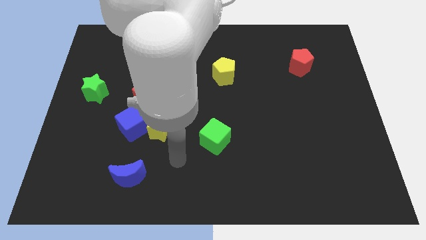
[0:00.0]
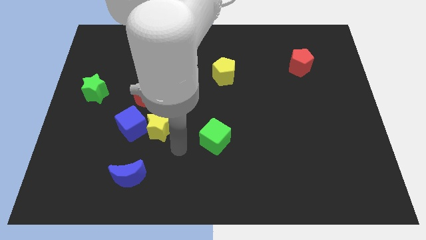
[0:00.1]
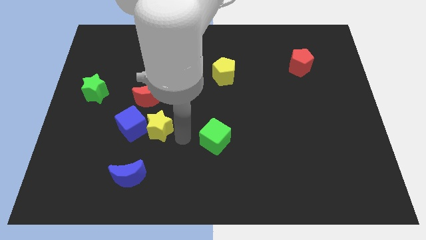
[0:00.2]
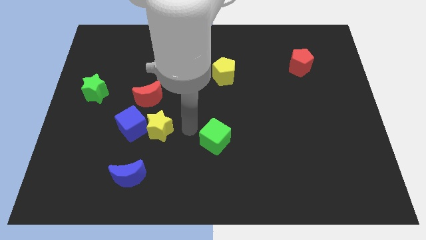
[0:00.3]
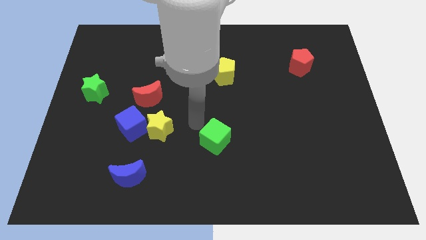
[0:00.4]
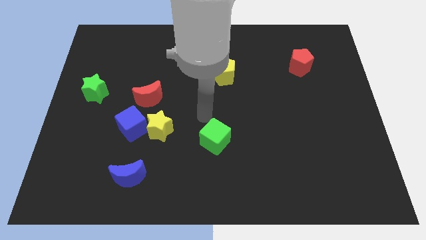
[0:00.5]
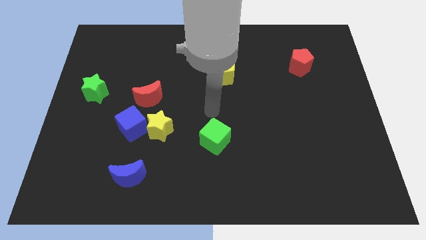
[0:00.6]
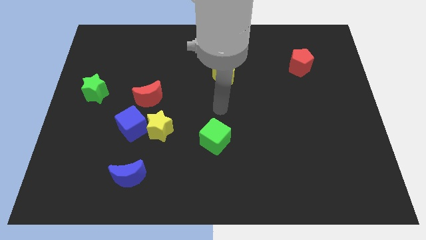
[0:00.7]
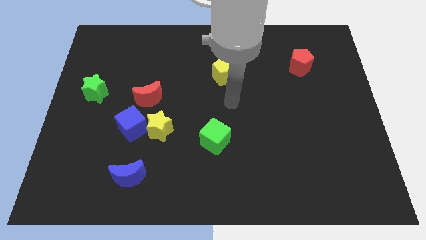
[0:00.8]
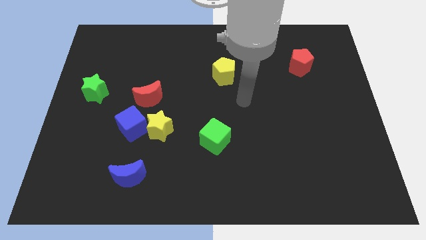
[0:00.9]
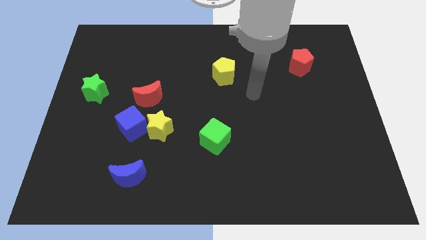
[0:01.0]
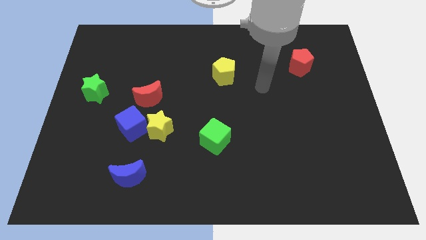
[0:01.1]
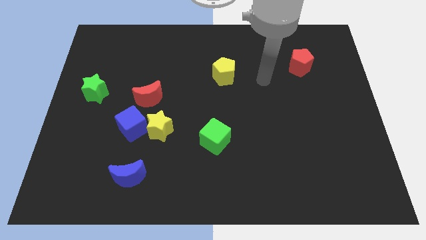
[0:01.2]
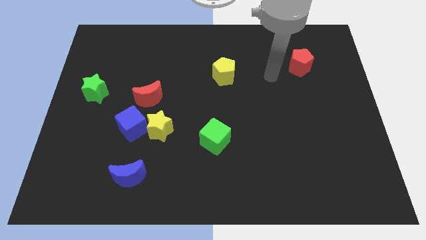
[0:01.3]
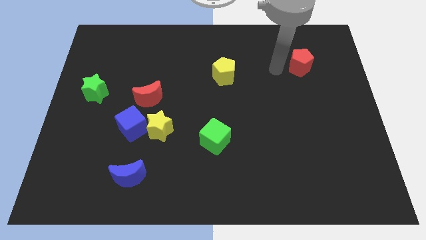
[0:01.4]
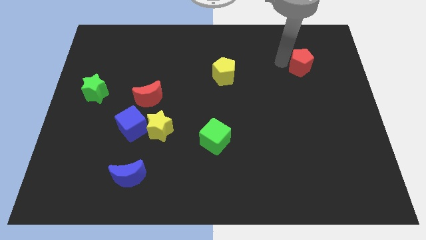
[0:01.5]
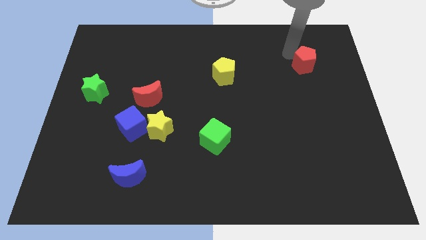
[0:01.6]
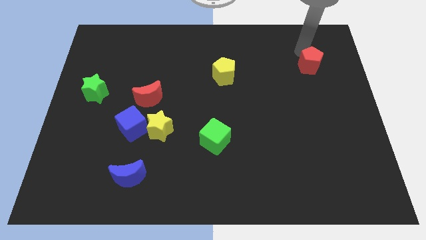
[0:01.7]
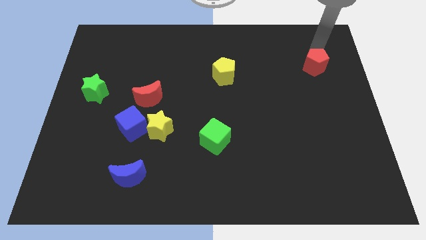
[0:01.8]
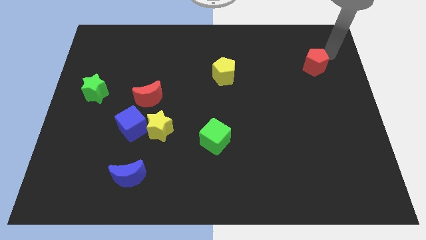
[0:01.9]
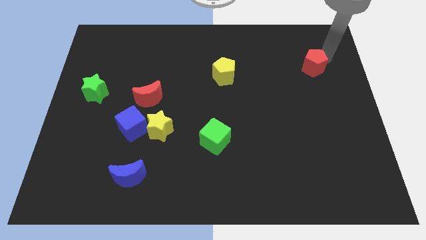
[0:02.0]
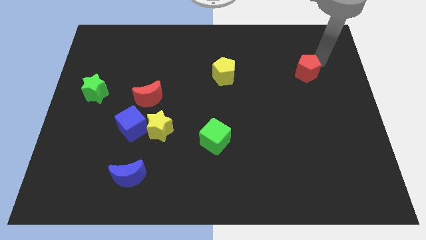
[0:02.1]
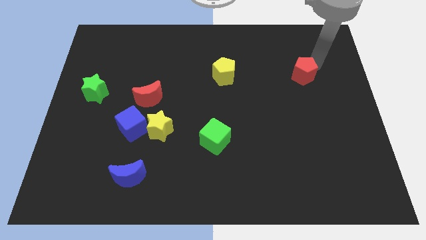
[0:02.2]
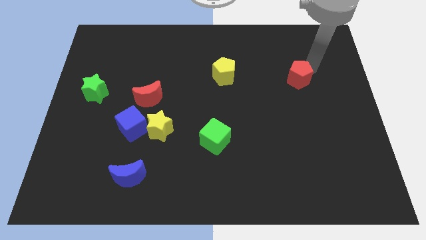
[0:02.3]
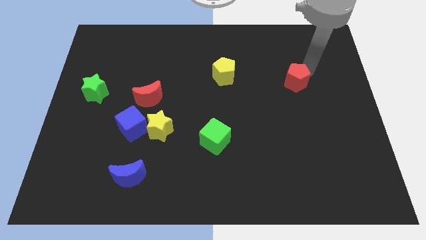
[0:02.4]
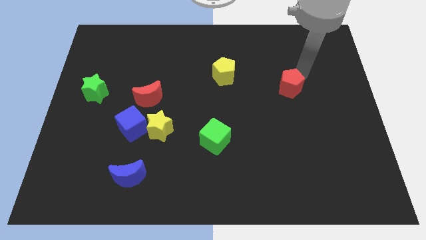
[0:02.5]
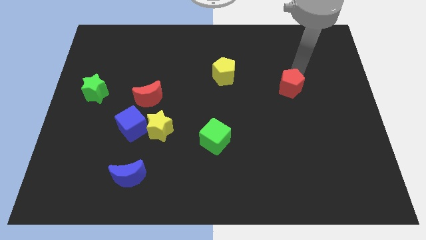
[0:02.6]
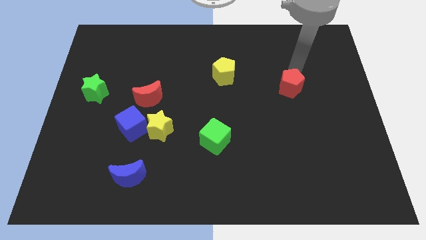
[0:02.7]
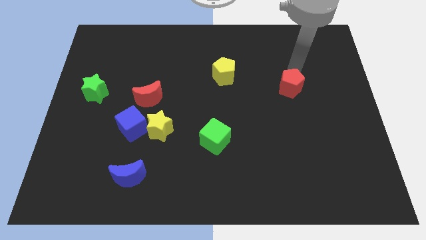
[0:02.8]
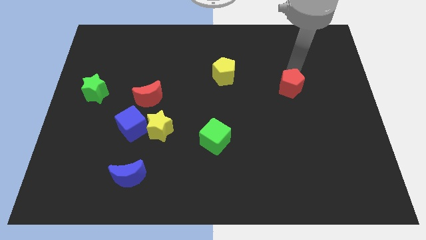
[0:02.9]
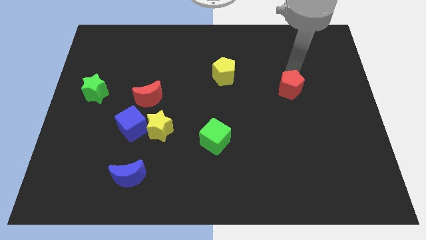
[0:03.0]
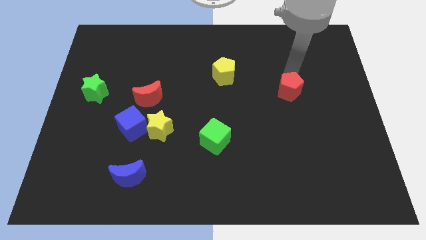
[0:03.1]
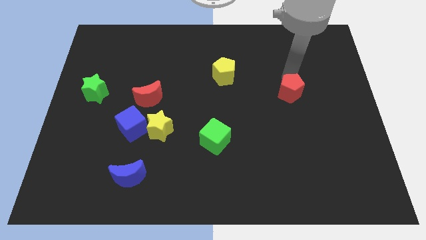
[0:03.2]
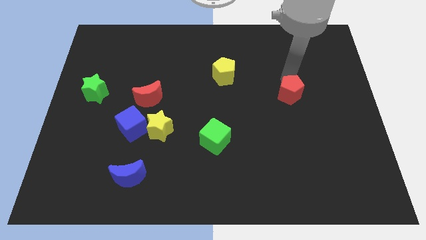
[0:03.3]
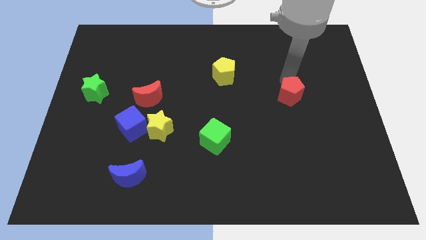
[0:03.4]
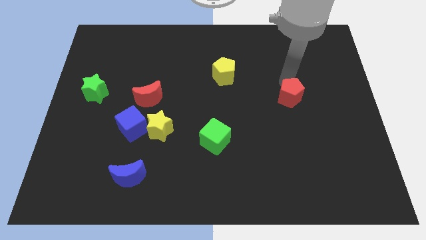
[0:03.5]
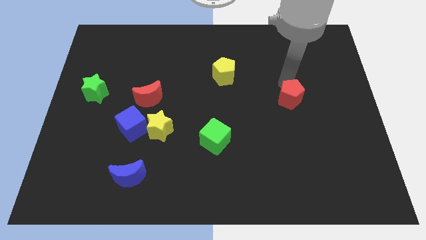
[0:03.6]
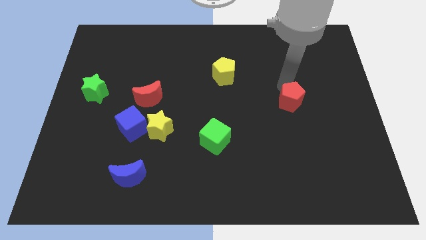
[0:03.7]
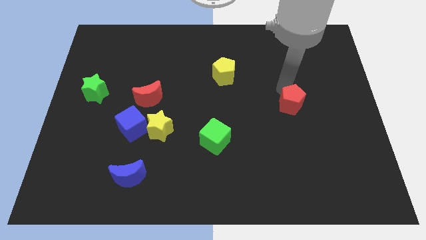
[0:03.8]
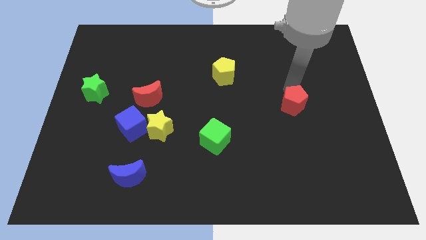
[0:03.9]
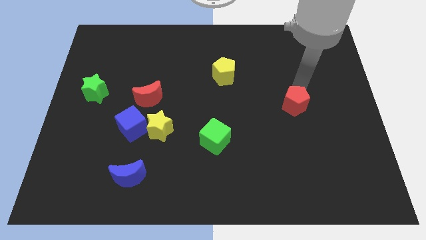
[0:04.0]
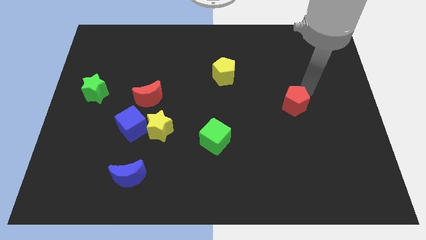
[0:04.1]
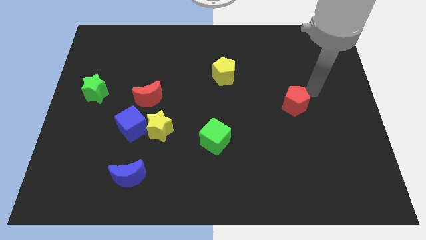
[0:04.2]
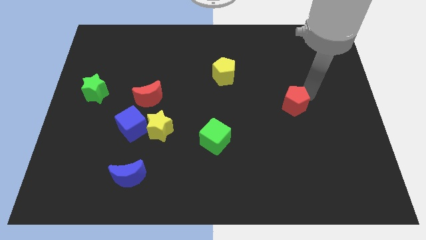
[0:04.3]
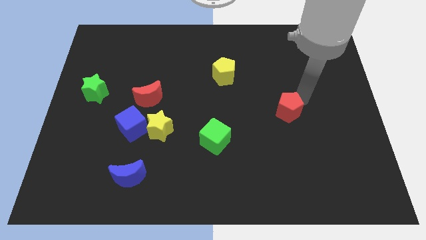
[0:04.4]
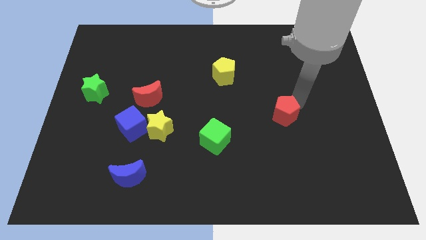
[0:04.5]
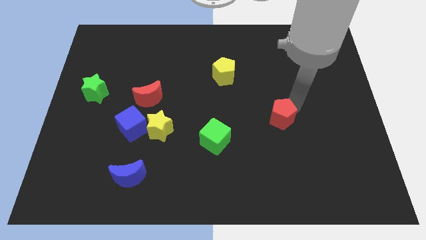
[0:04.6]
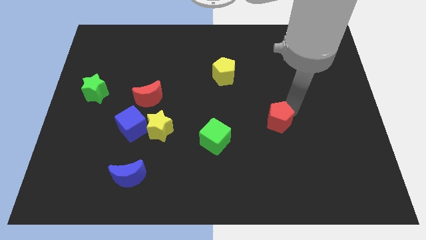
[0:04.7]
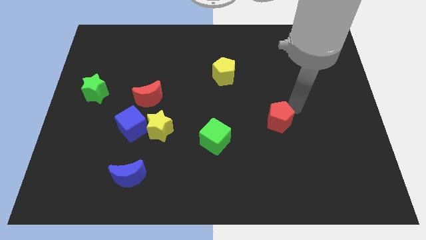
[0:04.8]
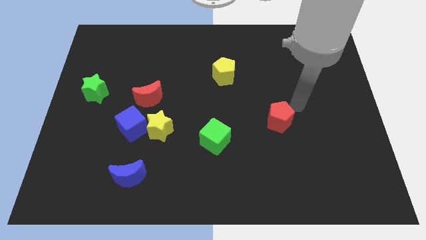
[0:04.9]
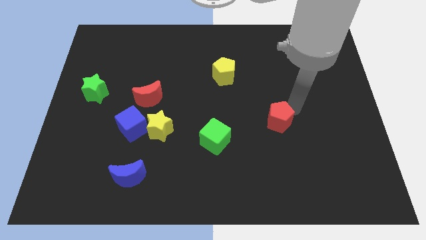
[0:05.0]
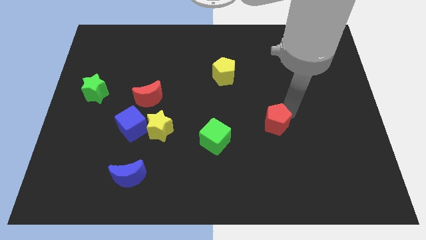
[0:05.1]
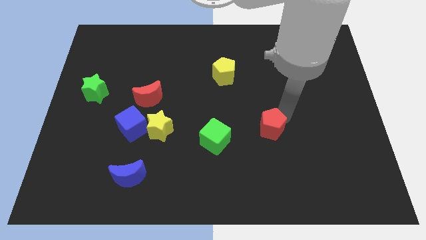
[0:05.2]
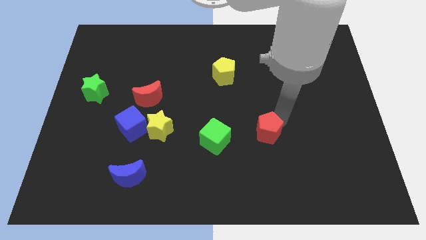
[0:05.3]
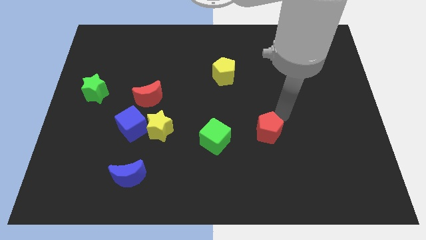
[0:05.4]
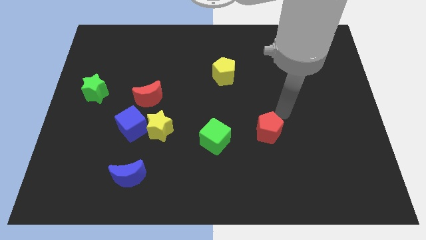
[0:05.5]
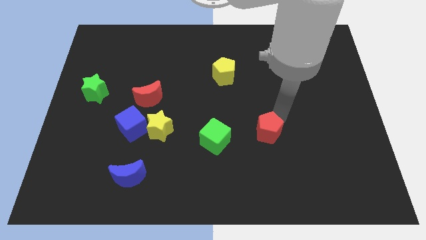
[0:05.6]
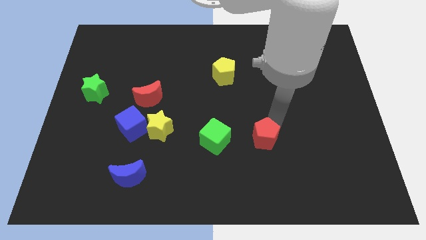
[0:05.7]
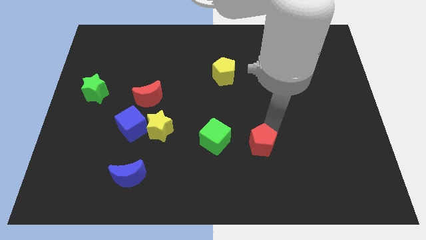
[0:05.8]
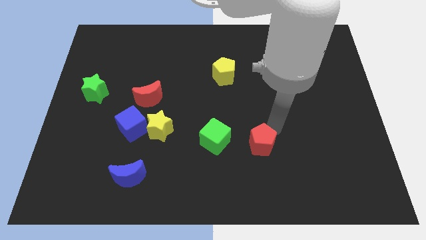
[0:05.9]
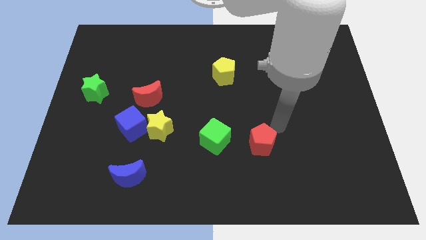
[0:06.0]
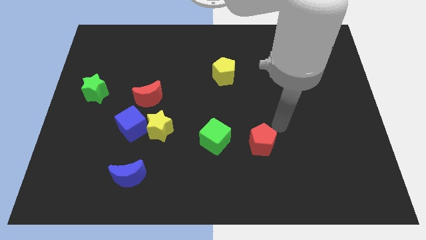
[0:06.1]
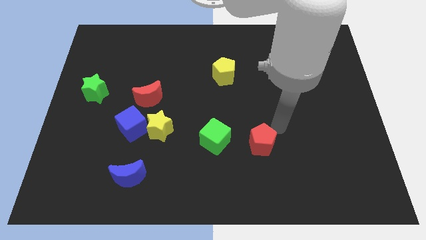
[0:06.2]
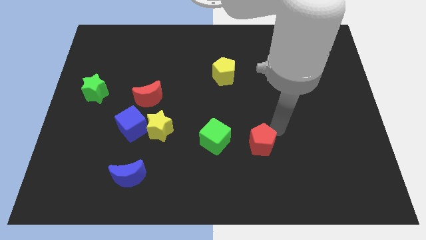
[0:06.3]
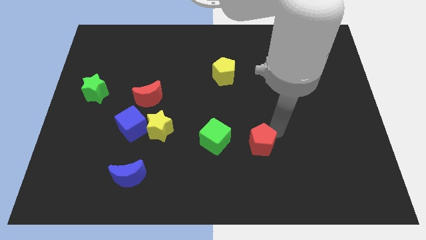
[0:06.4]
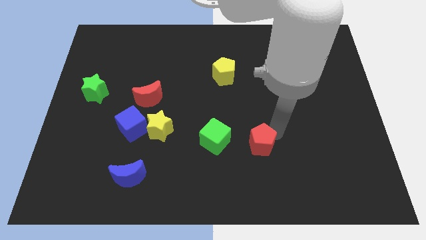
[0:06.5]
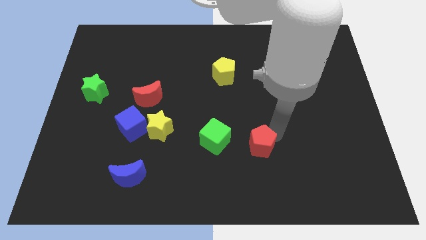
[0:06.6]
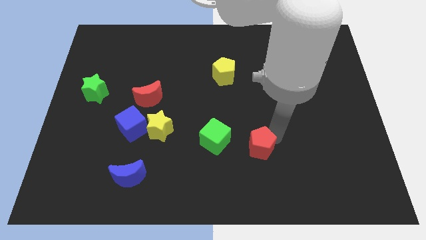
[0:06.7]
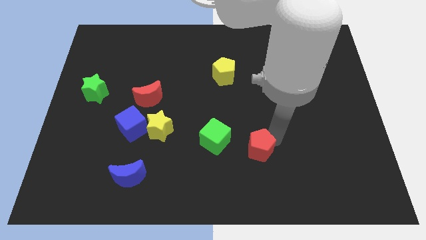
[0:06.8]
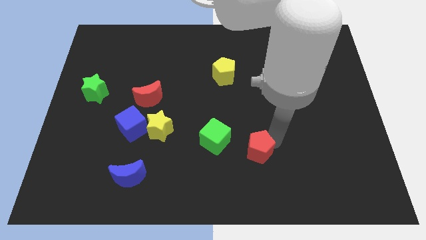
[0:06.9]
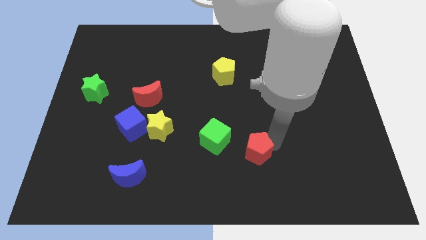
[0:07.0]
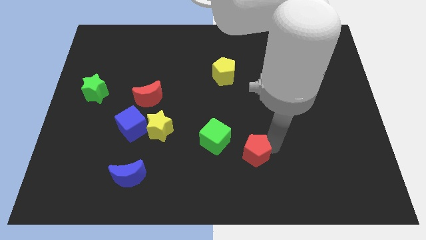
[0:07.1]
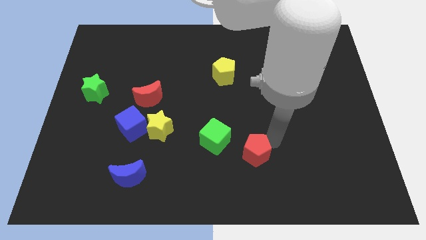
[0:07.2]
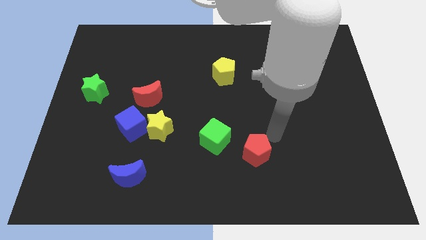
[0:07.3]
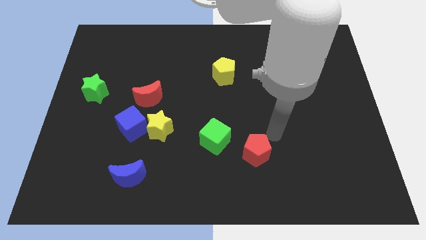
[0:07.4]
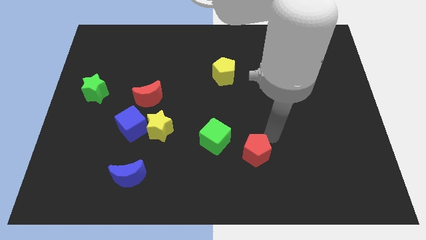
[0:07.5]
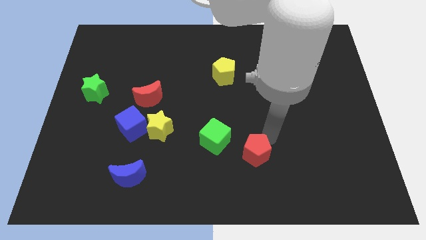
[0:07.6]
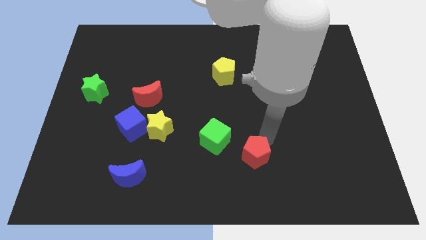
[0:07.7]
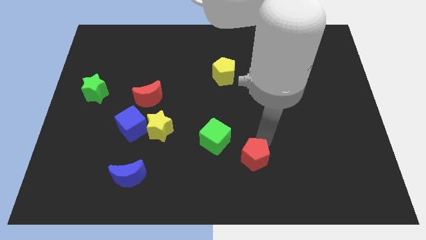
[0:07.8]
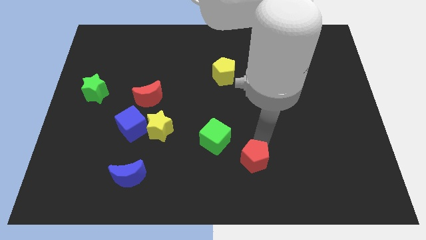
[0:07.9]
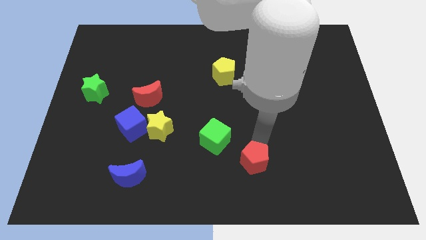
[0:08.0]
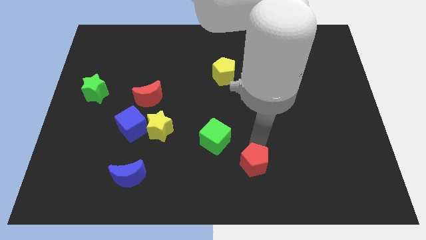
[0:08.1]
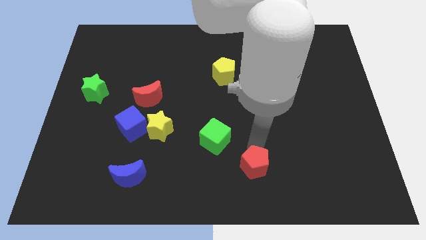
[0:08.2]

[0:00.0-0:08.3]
move the red pentagon to the bottom side
